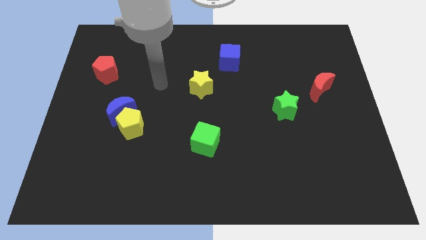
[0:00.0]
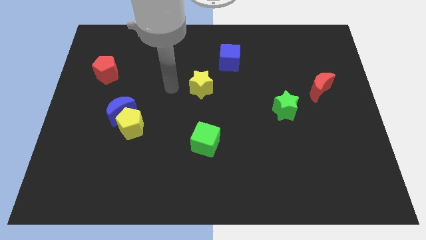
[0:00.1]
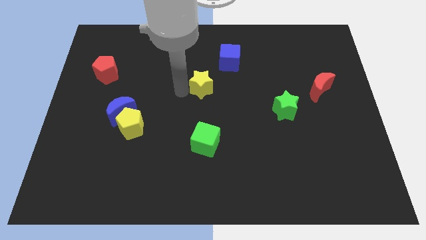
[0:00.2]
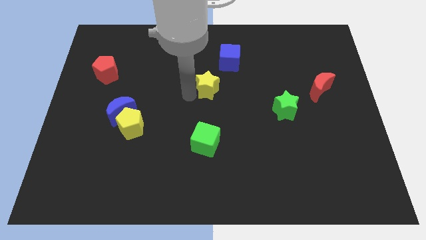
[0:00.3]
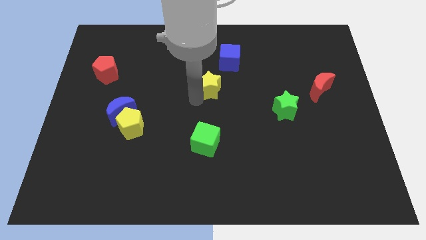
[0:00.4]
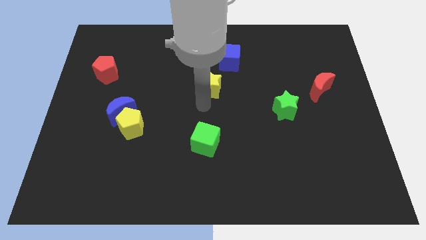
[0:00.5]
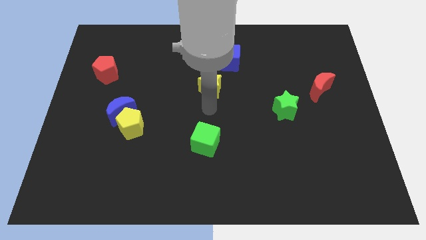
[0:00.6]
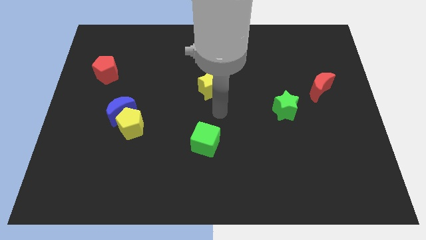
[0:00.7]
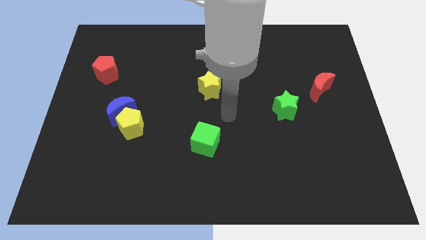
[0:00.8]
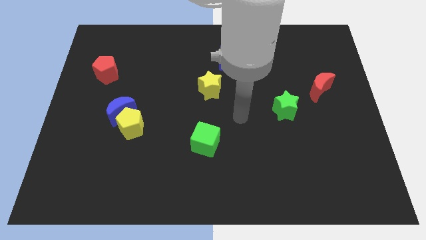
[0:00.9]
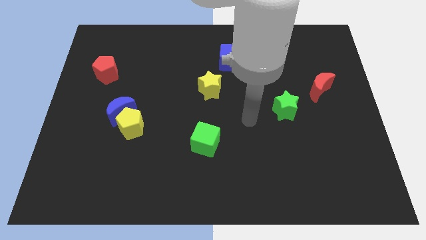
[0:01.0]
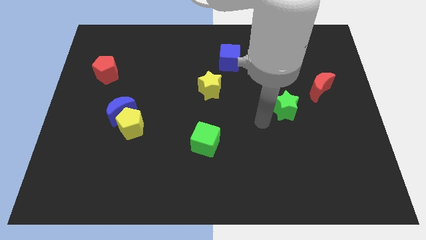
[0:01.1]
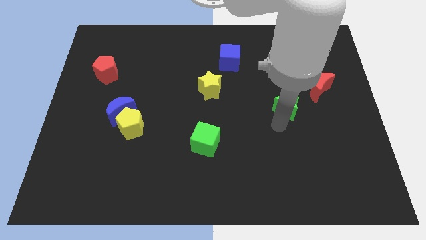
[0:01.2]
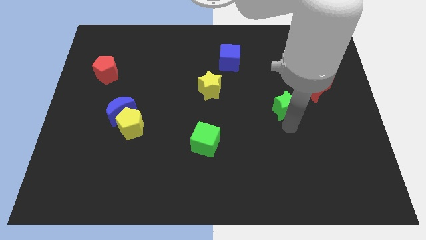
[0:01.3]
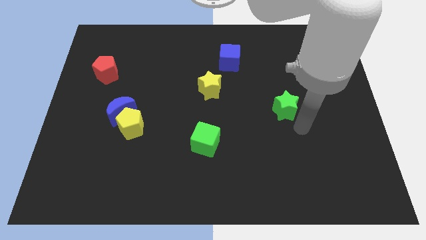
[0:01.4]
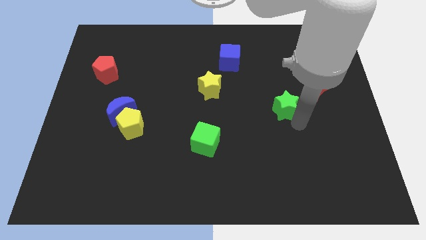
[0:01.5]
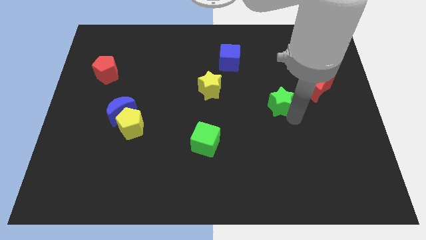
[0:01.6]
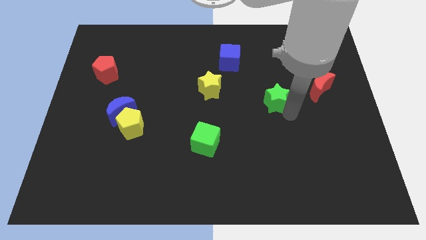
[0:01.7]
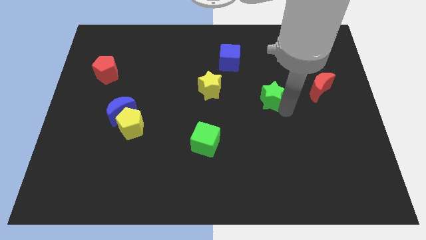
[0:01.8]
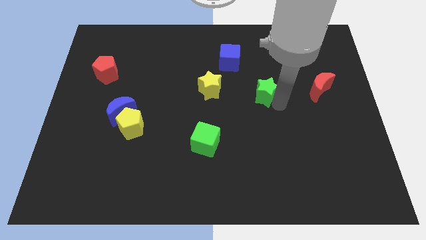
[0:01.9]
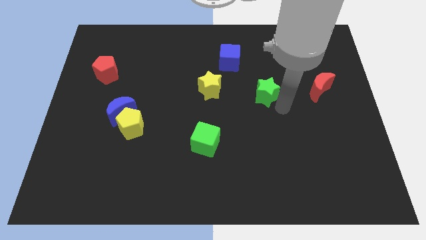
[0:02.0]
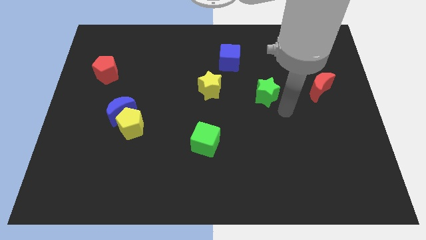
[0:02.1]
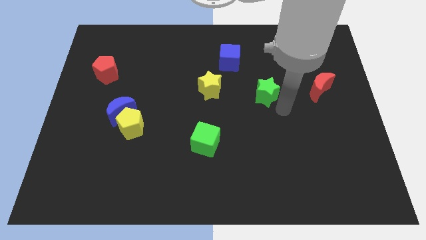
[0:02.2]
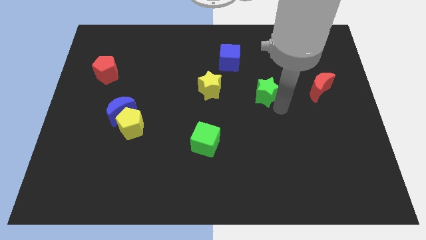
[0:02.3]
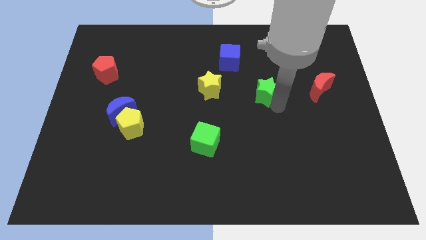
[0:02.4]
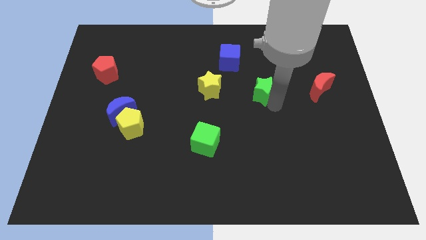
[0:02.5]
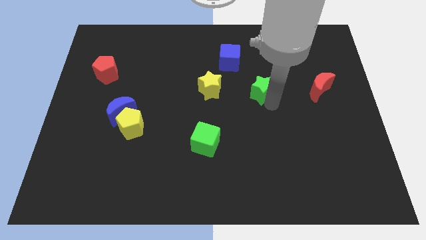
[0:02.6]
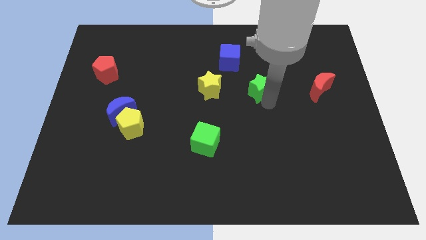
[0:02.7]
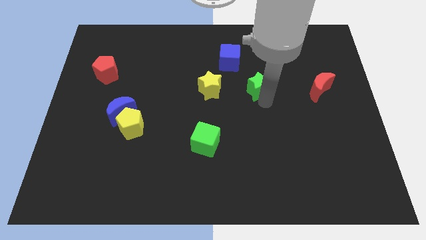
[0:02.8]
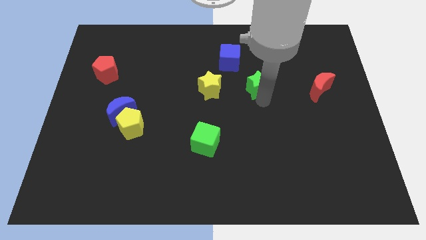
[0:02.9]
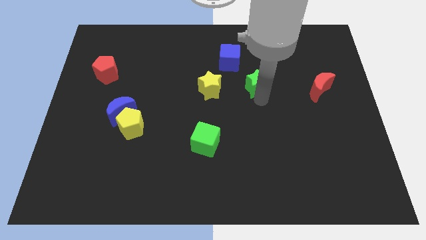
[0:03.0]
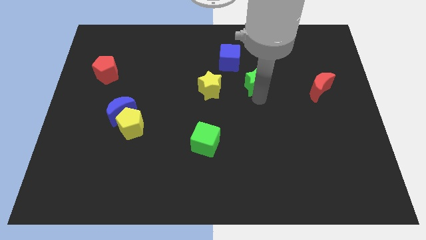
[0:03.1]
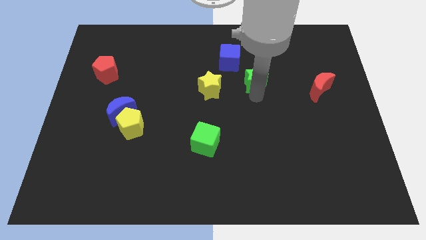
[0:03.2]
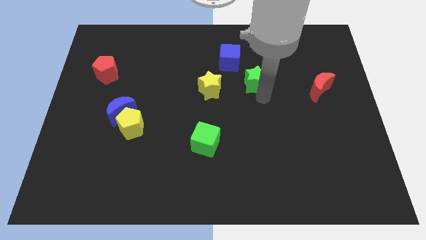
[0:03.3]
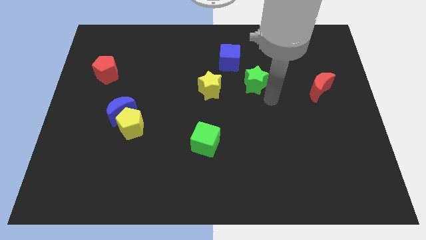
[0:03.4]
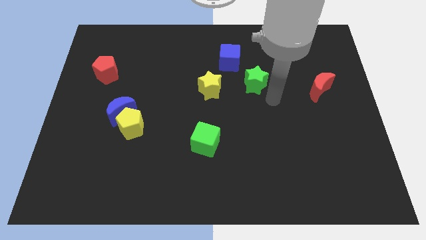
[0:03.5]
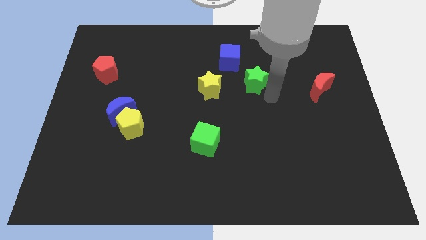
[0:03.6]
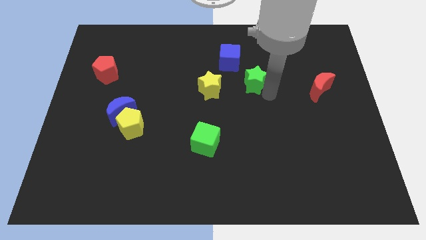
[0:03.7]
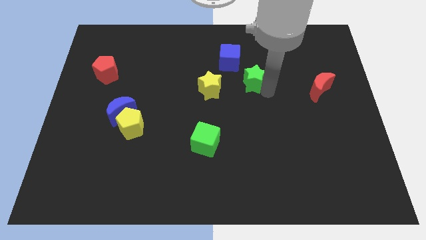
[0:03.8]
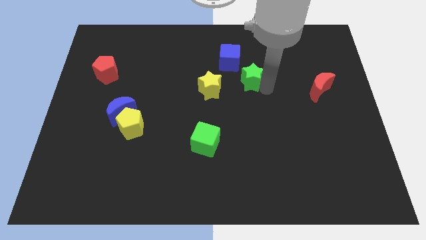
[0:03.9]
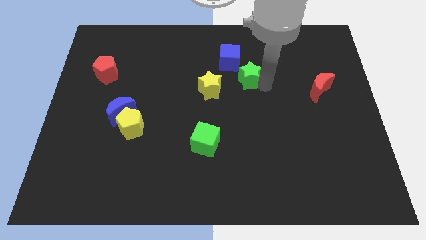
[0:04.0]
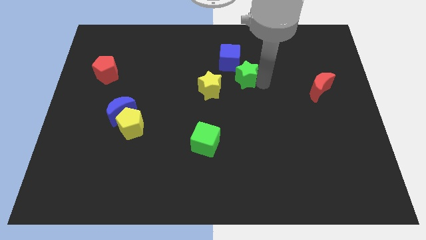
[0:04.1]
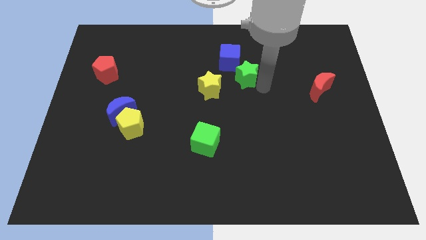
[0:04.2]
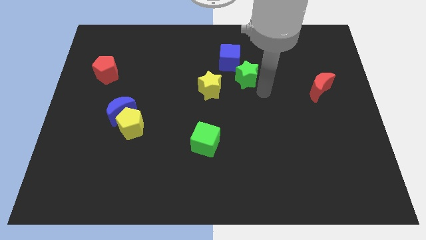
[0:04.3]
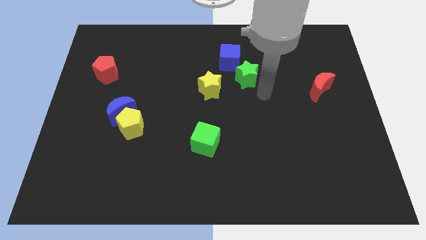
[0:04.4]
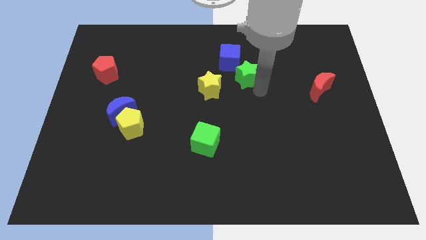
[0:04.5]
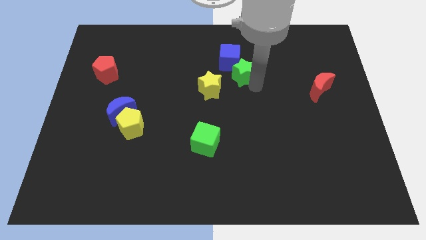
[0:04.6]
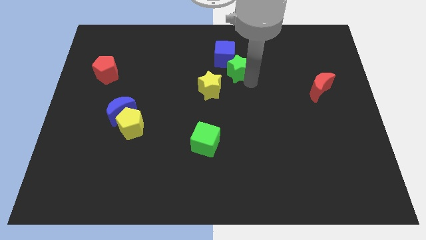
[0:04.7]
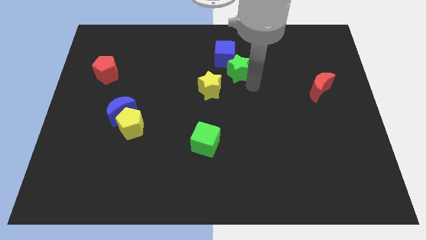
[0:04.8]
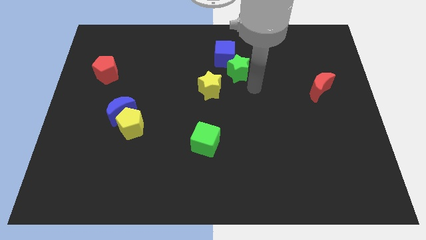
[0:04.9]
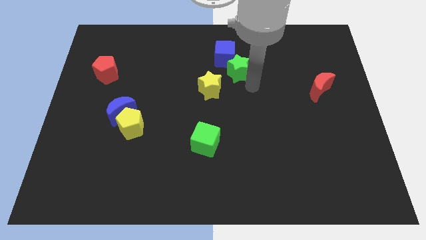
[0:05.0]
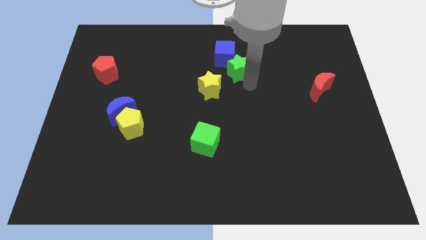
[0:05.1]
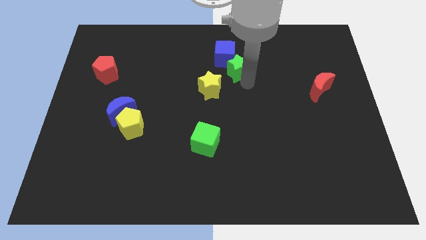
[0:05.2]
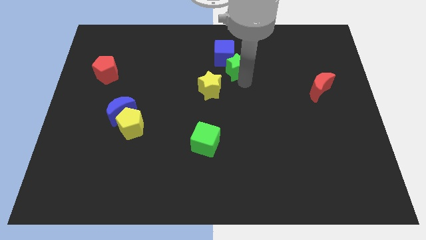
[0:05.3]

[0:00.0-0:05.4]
move the green star close to the blue cube

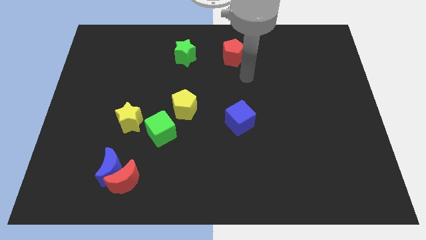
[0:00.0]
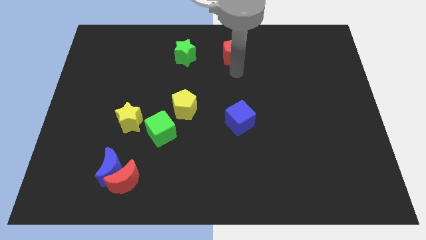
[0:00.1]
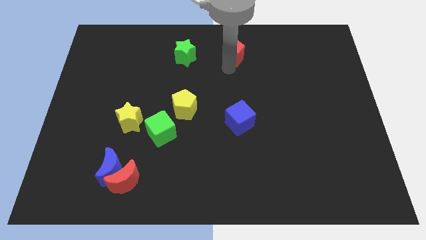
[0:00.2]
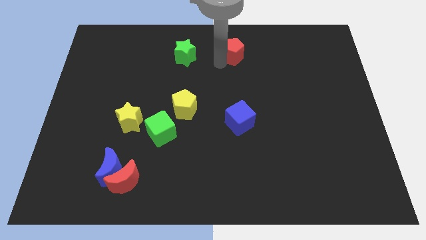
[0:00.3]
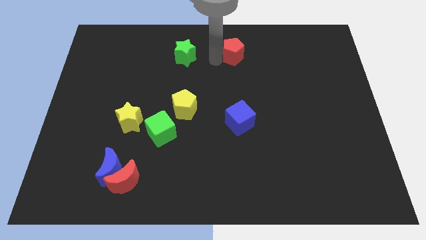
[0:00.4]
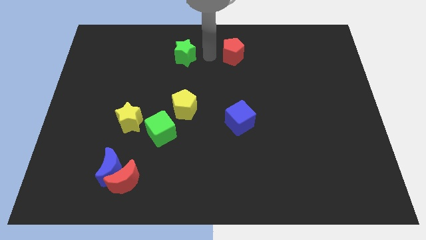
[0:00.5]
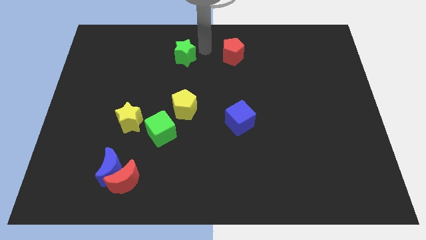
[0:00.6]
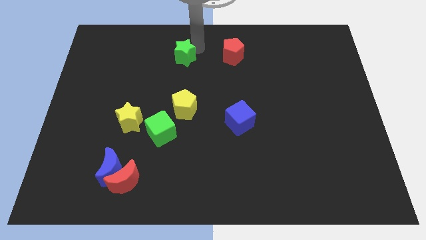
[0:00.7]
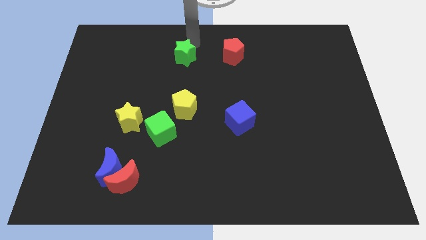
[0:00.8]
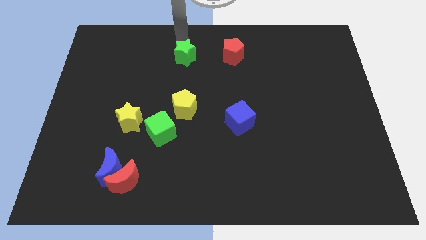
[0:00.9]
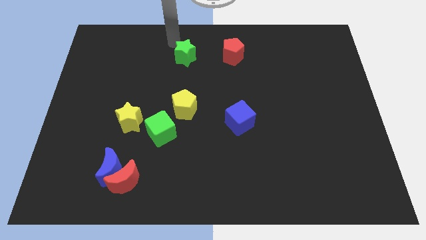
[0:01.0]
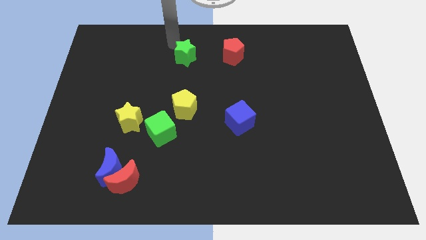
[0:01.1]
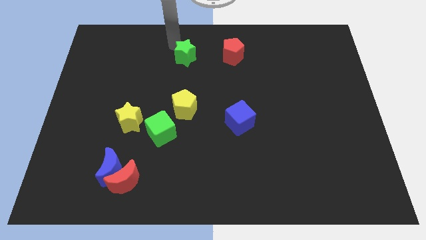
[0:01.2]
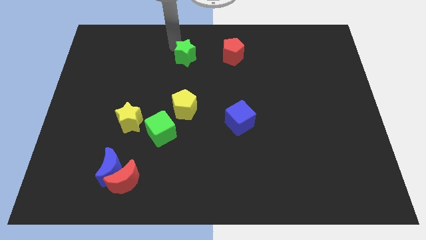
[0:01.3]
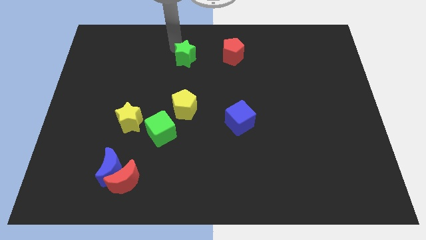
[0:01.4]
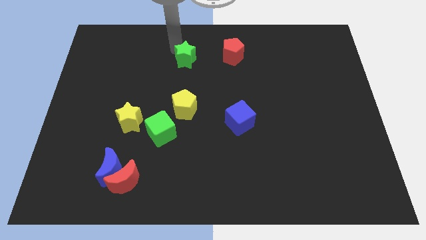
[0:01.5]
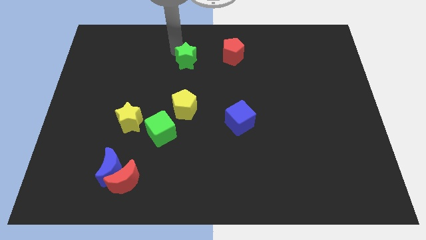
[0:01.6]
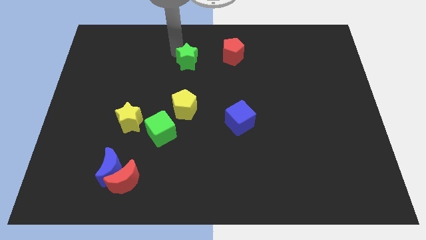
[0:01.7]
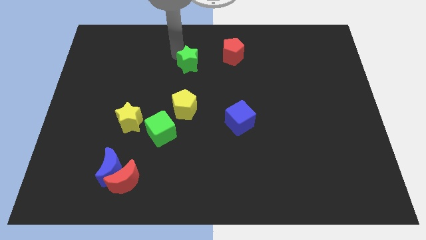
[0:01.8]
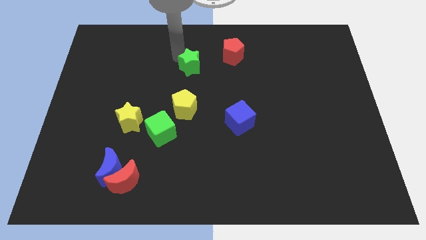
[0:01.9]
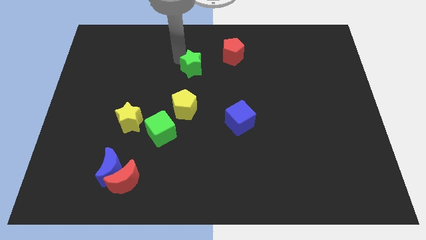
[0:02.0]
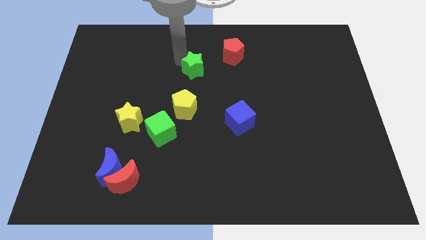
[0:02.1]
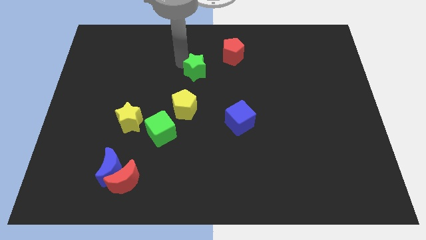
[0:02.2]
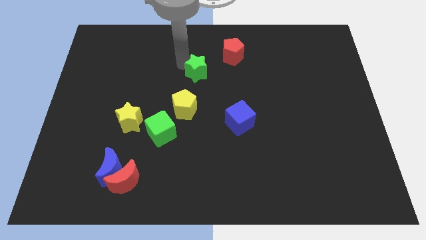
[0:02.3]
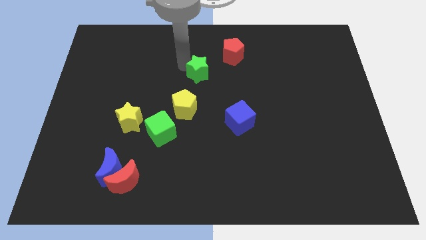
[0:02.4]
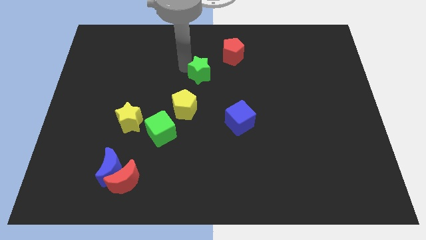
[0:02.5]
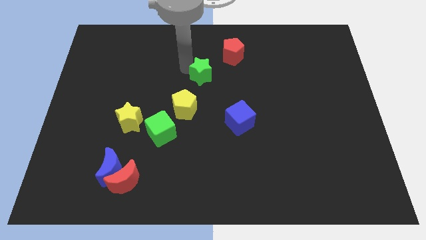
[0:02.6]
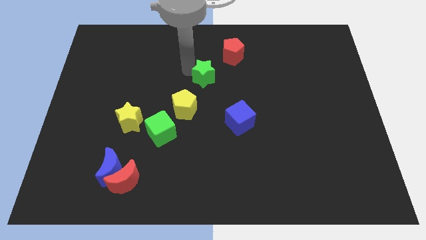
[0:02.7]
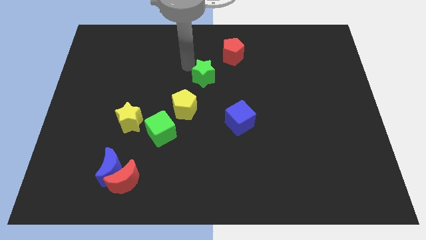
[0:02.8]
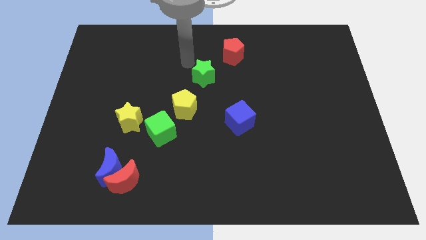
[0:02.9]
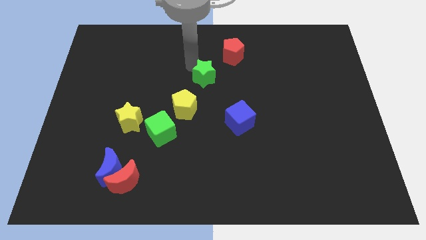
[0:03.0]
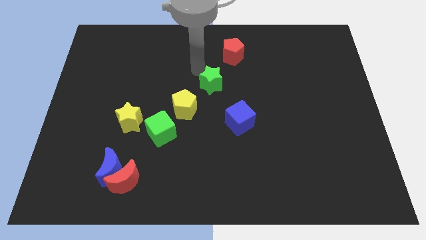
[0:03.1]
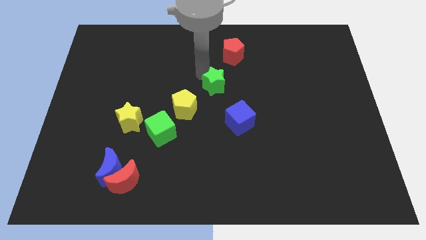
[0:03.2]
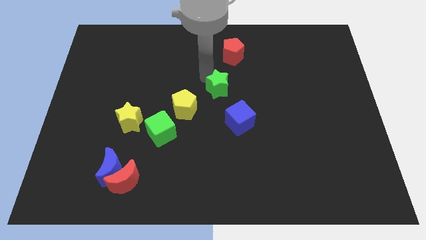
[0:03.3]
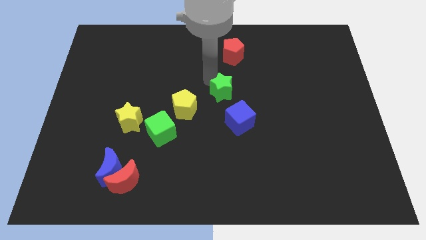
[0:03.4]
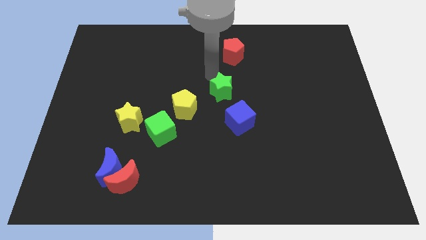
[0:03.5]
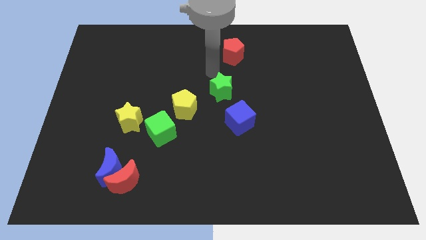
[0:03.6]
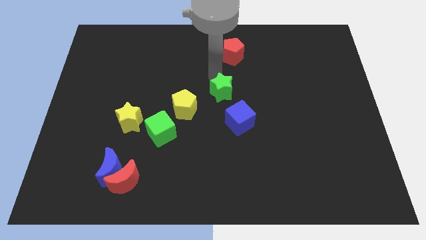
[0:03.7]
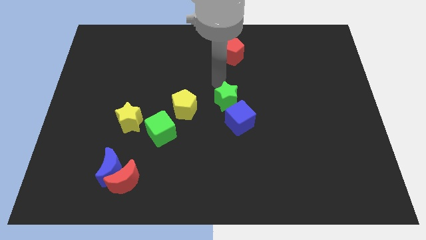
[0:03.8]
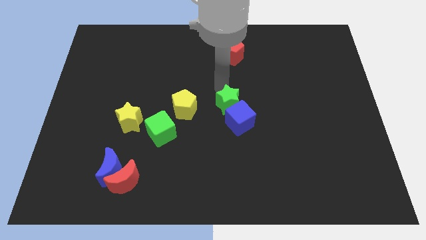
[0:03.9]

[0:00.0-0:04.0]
slide the green star close to the blue cube
